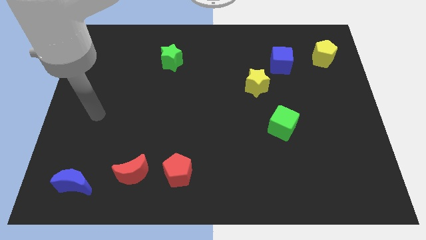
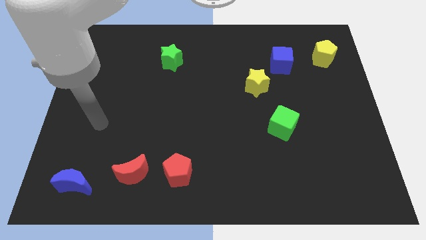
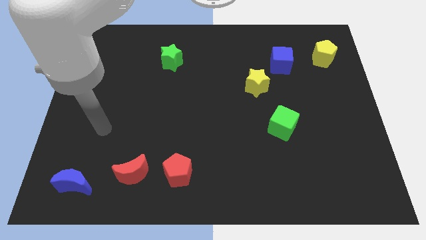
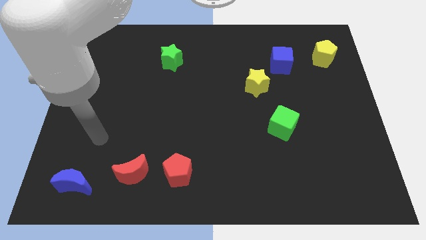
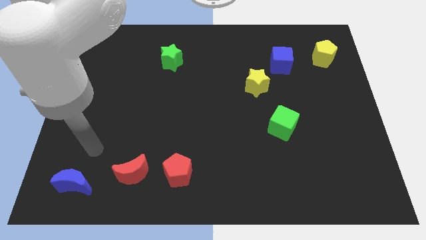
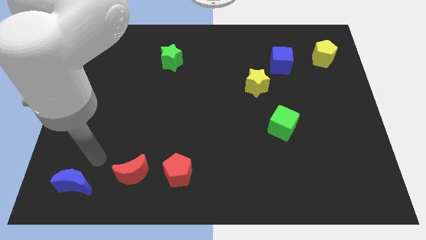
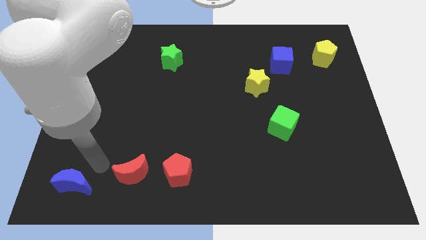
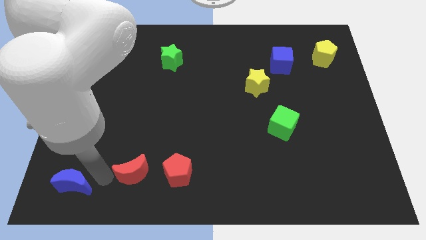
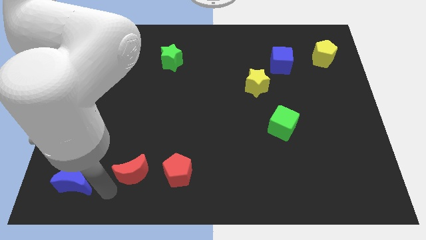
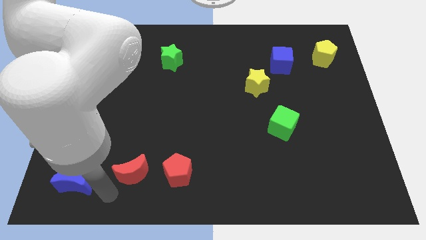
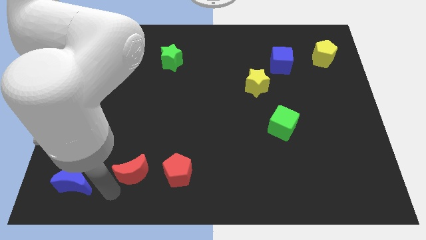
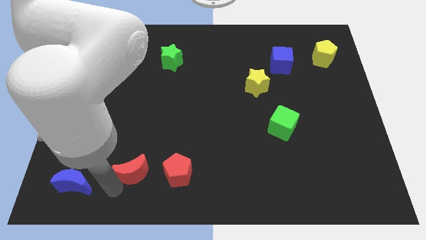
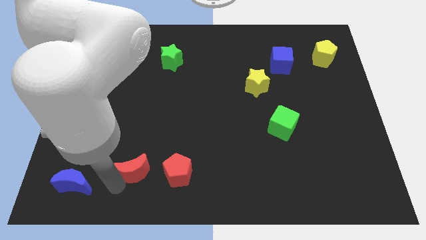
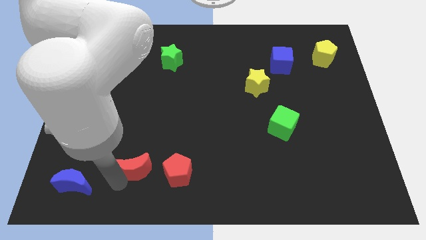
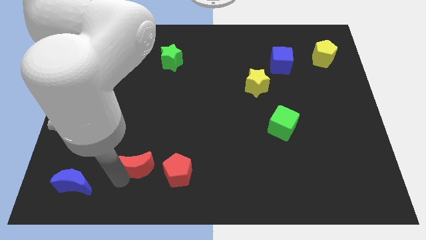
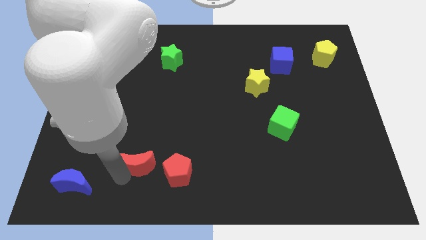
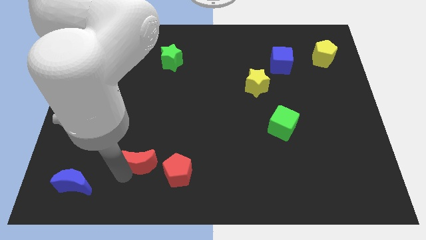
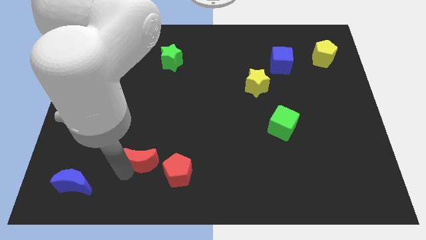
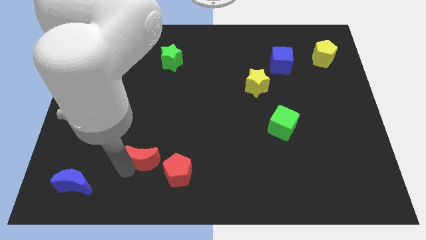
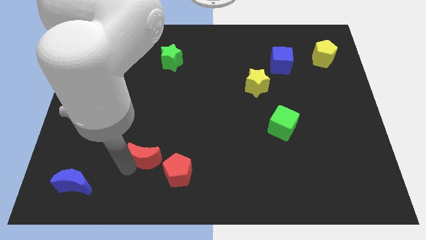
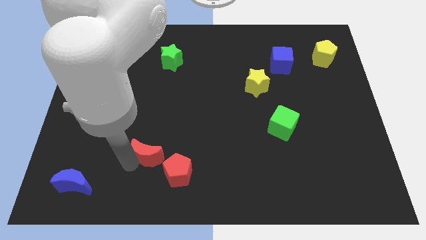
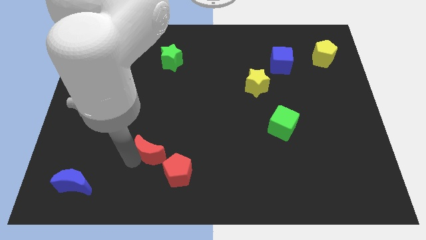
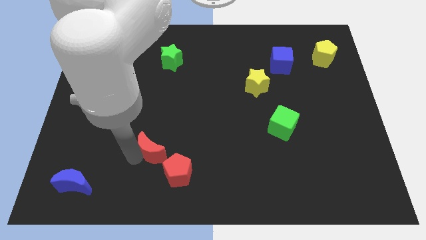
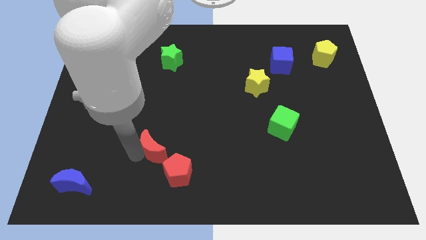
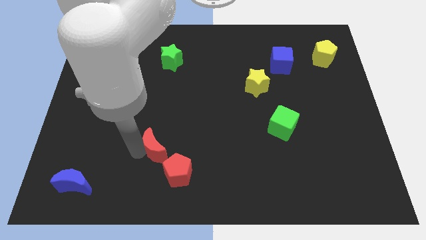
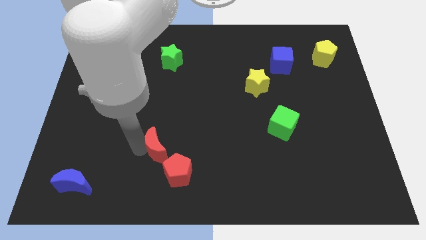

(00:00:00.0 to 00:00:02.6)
move the red moon slightly upwards and then to the right

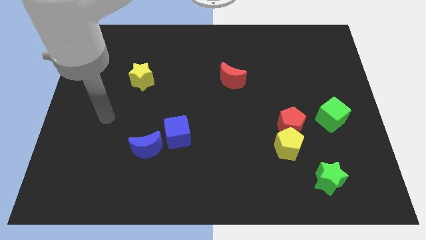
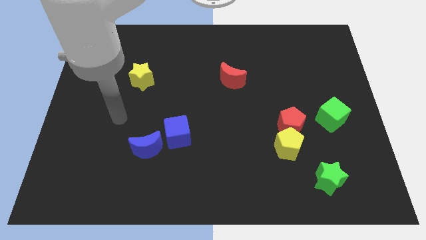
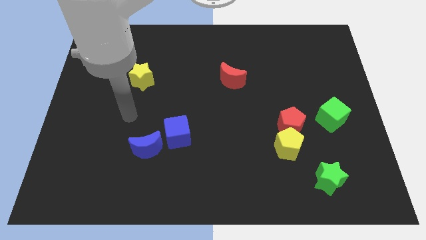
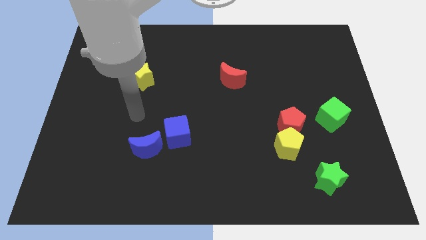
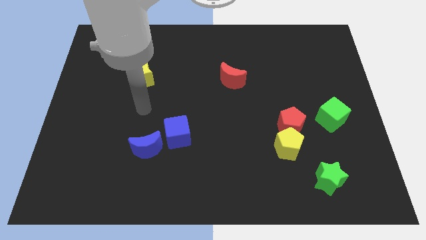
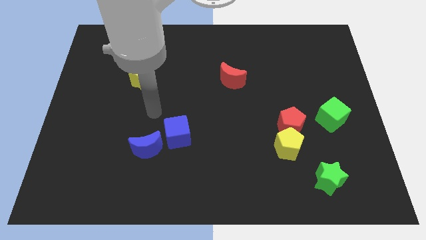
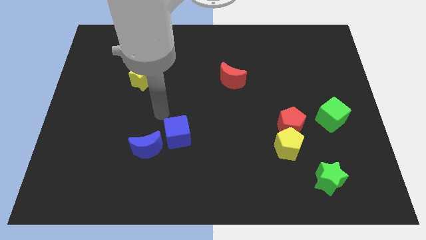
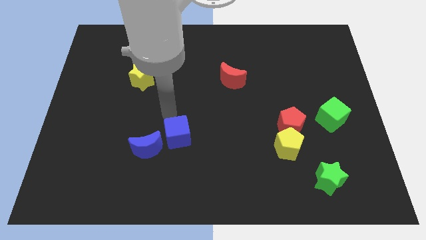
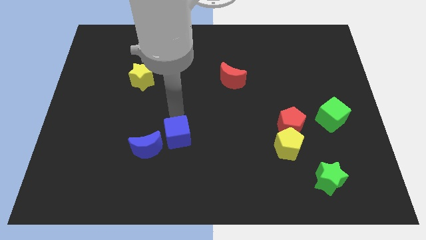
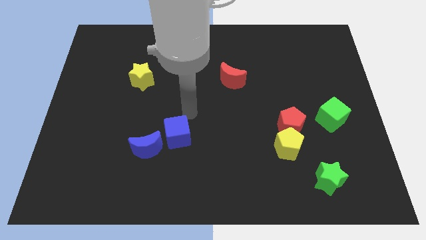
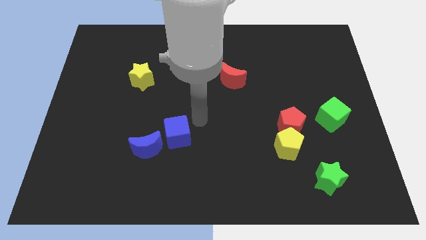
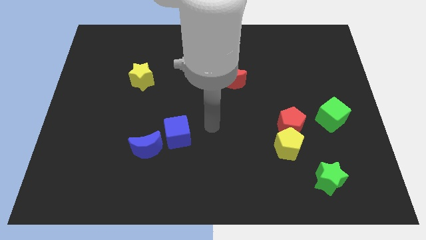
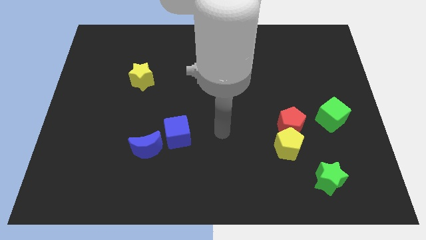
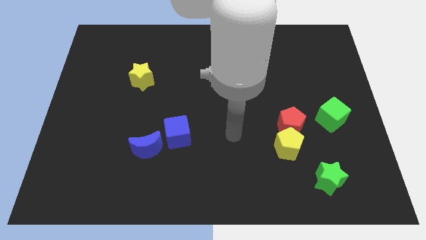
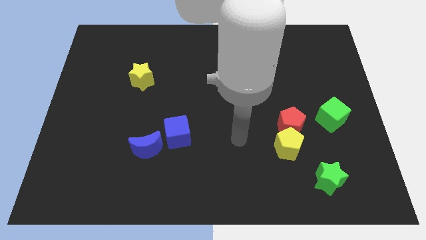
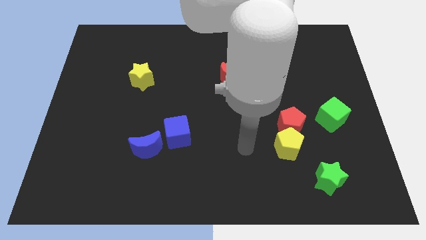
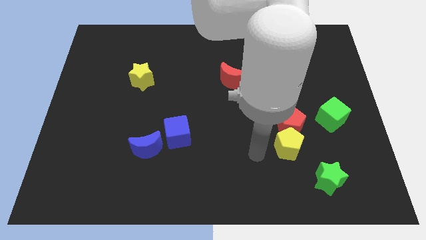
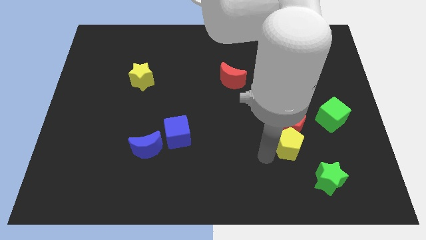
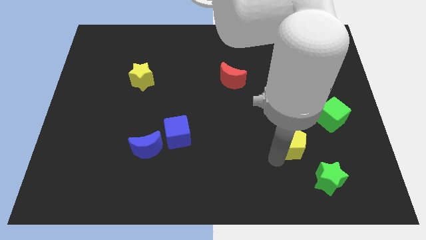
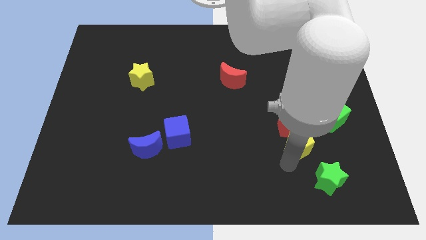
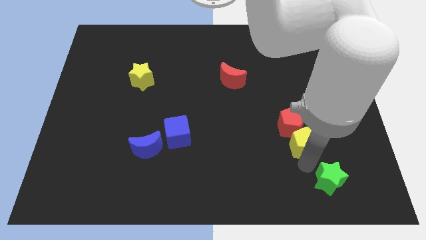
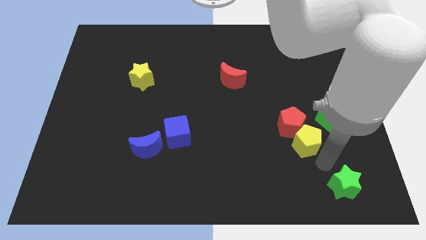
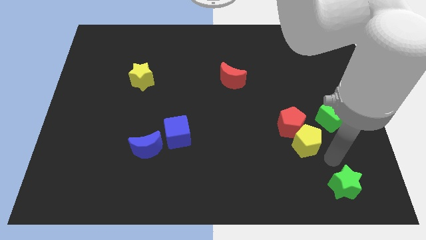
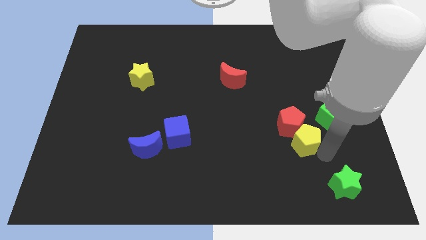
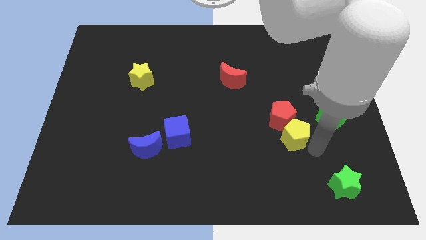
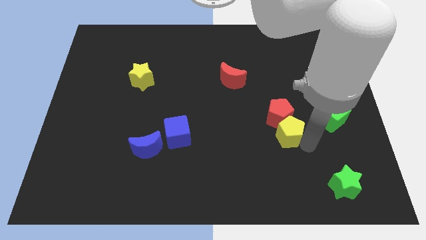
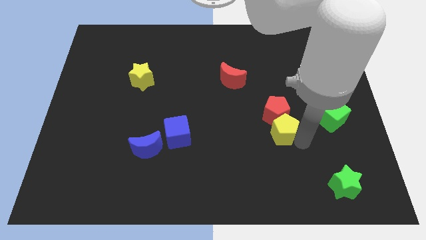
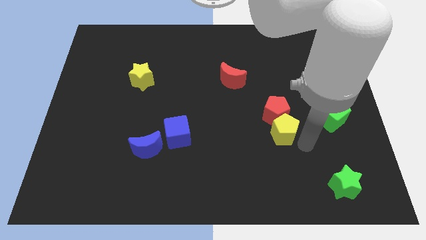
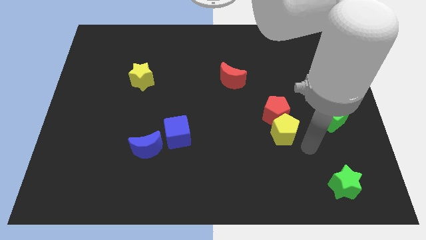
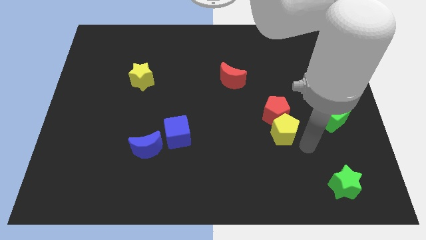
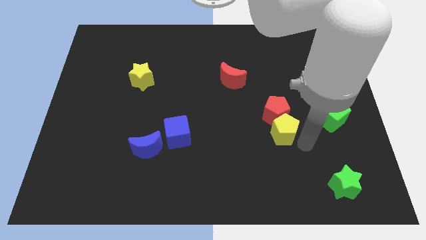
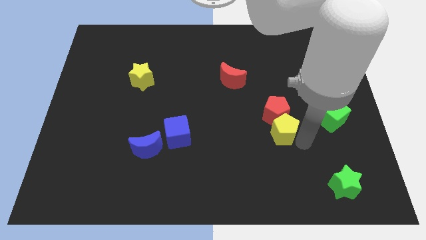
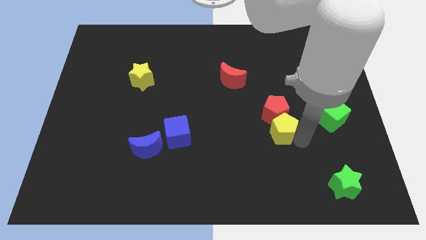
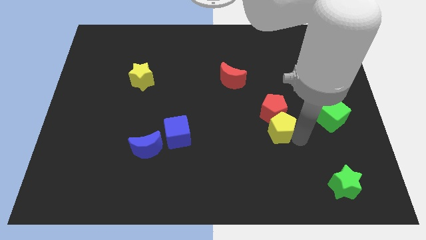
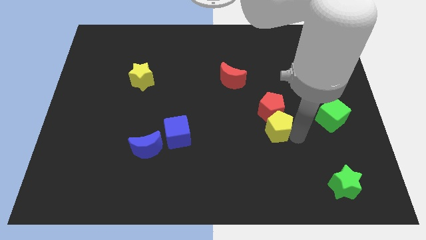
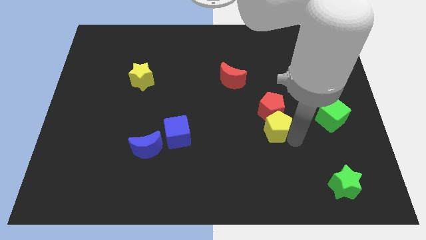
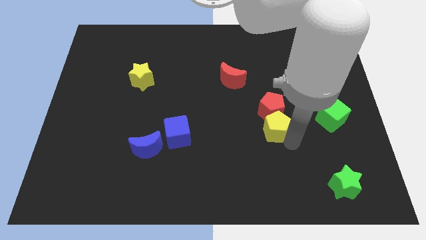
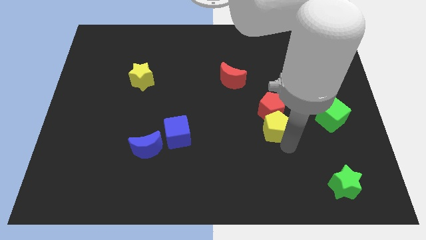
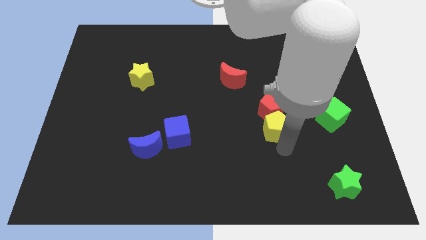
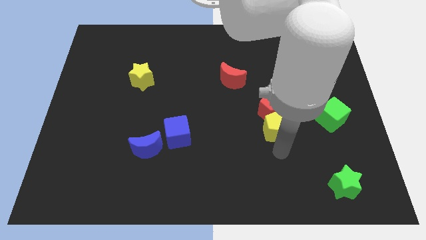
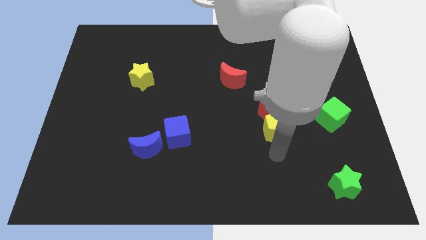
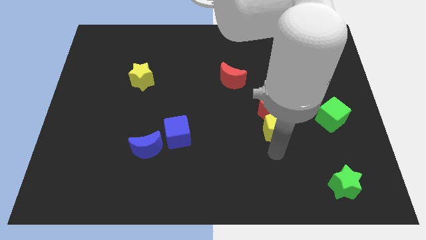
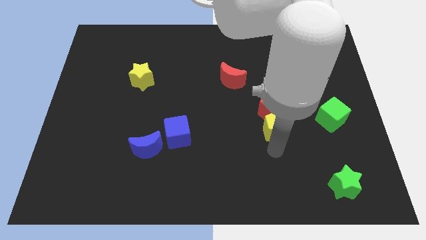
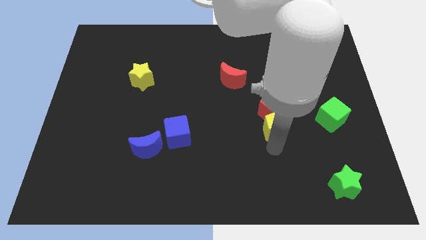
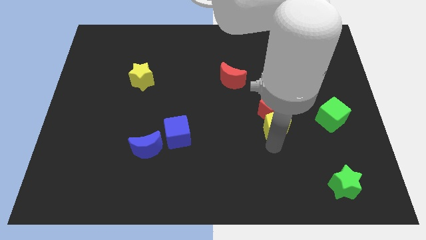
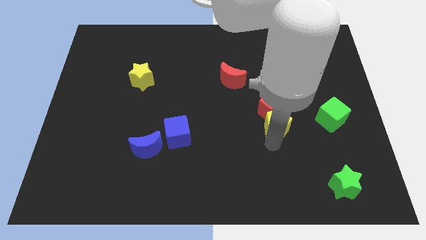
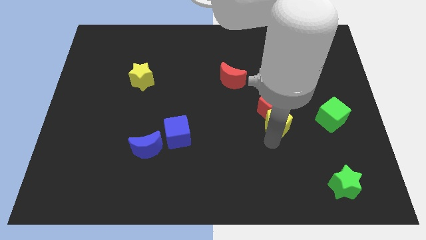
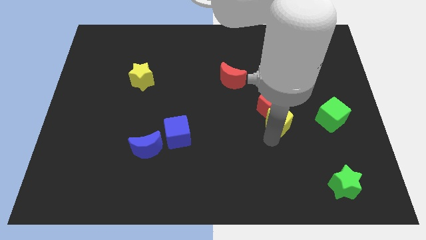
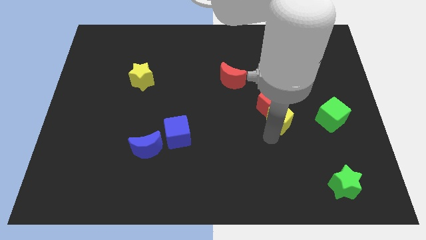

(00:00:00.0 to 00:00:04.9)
push the yellow pentagon slightly upwards

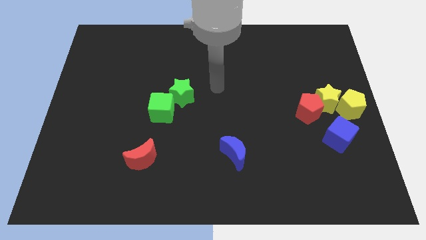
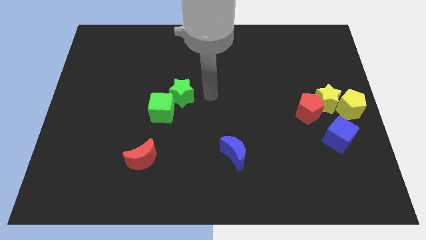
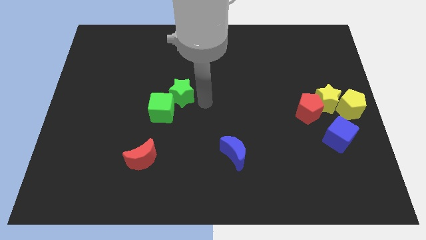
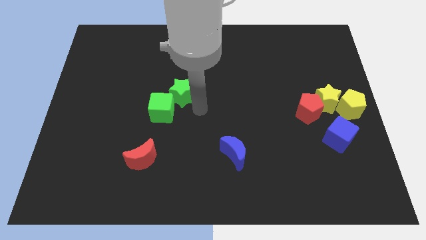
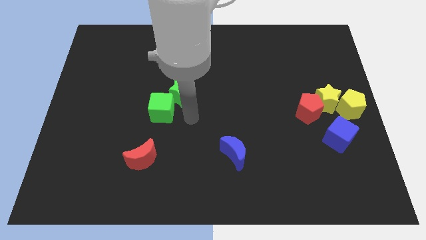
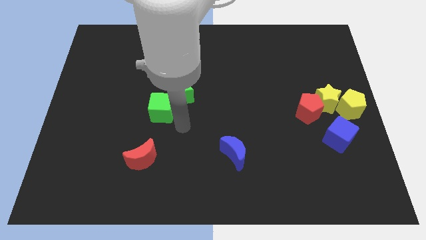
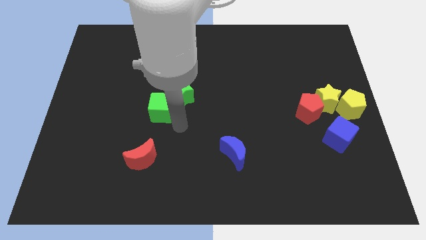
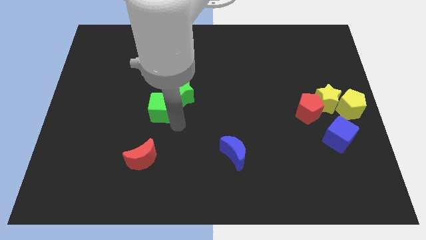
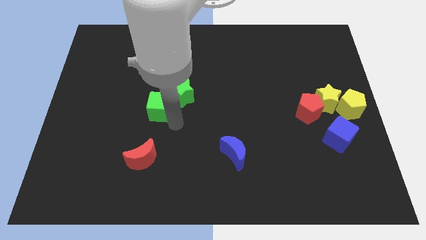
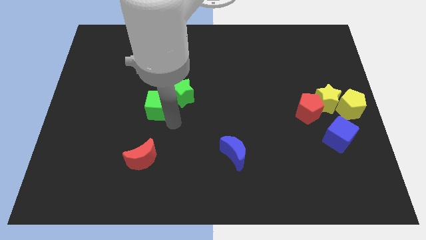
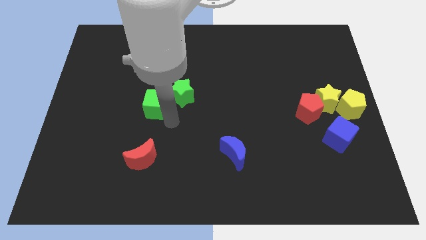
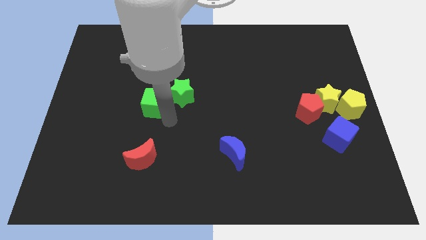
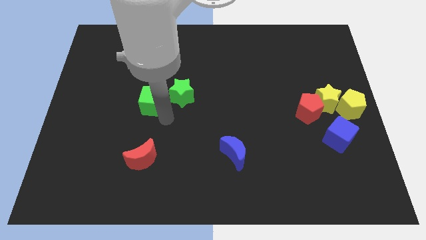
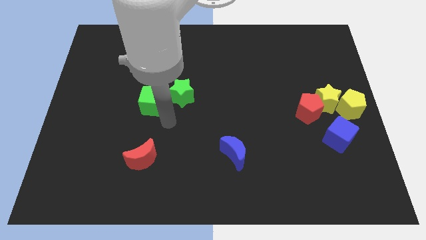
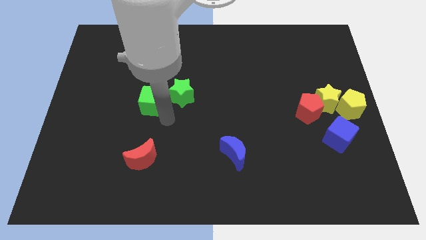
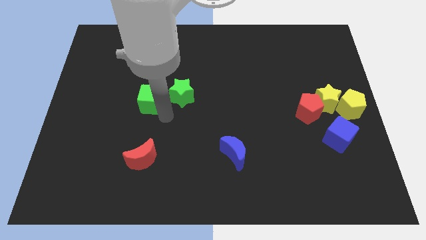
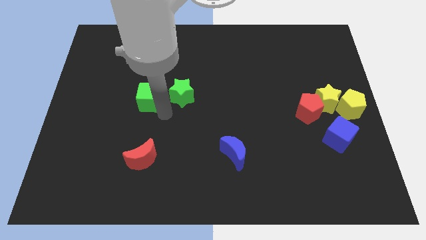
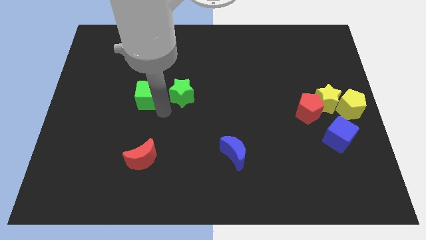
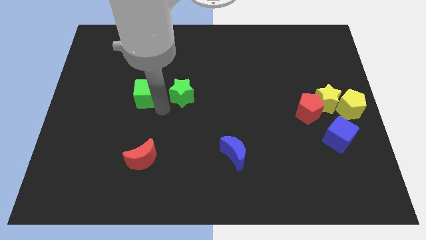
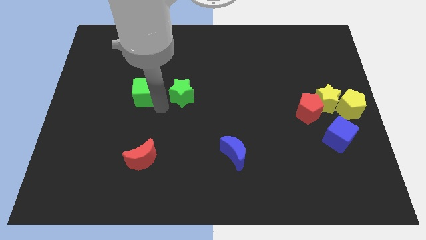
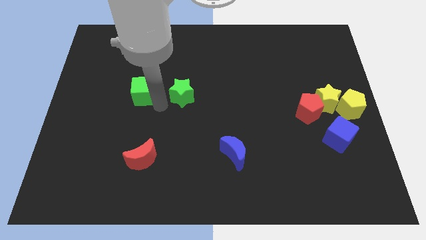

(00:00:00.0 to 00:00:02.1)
move the green cube a little bit upwards and then left
